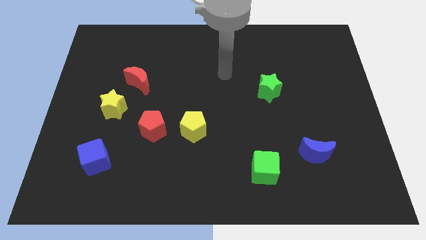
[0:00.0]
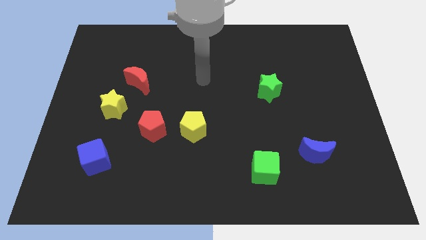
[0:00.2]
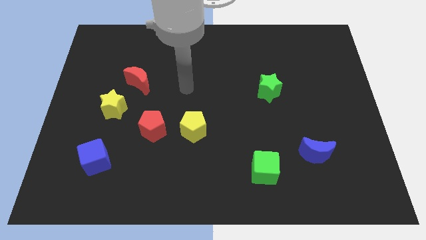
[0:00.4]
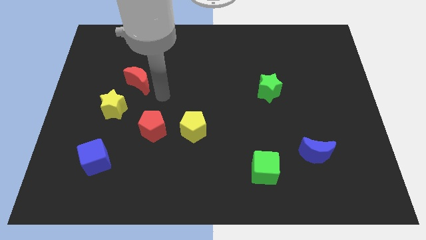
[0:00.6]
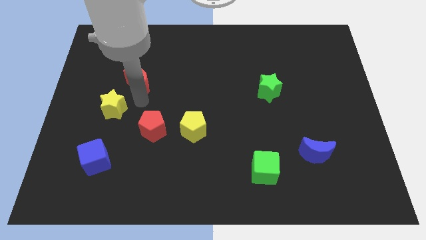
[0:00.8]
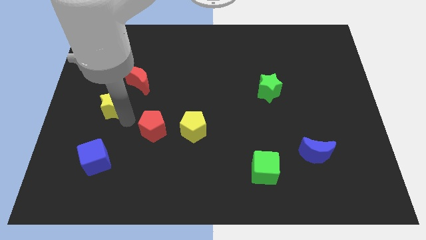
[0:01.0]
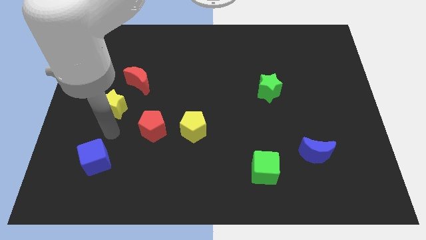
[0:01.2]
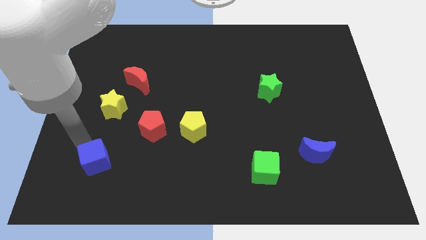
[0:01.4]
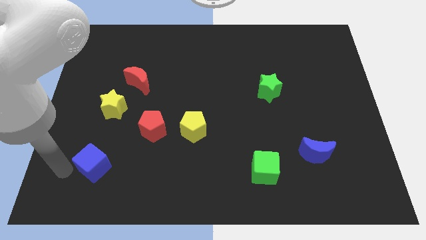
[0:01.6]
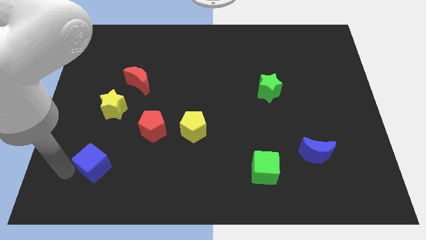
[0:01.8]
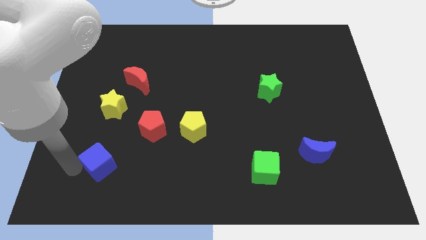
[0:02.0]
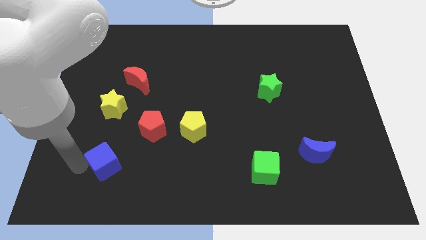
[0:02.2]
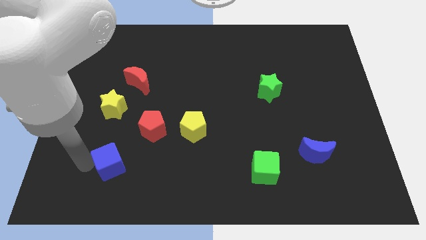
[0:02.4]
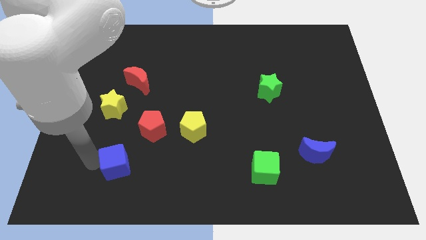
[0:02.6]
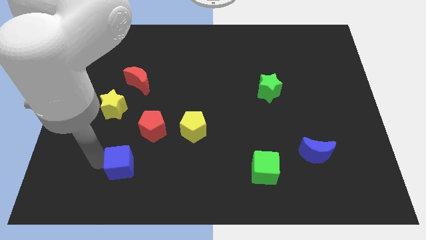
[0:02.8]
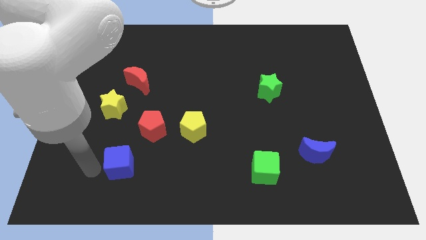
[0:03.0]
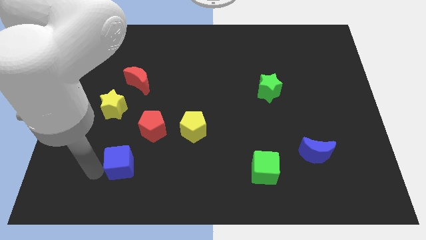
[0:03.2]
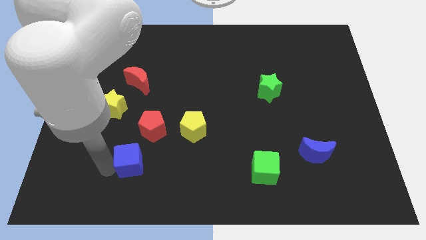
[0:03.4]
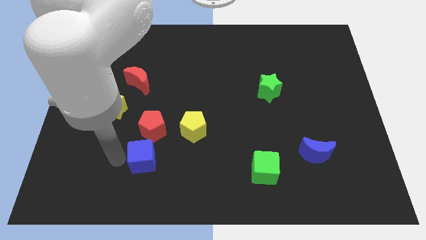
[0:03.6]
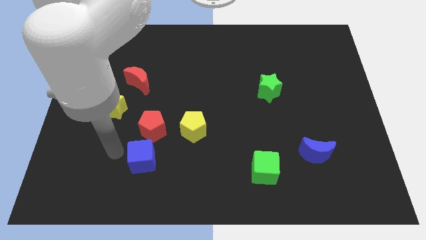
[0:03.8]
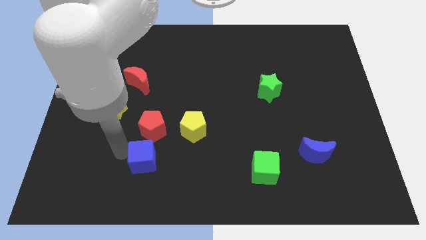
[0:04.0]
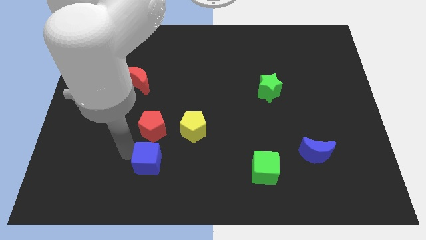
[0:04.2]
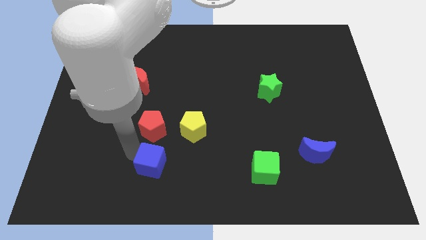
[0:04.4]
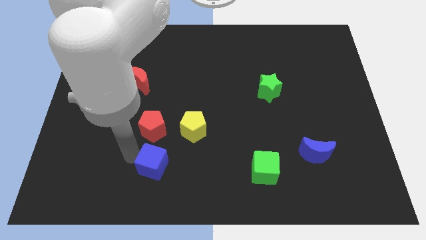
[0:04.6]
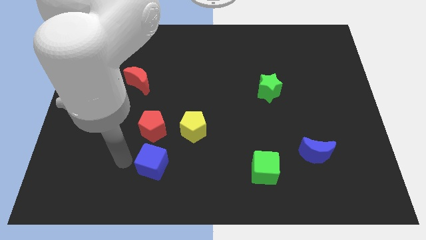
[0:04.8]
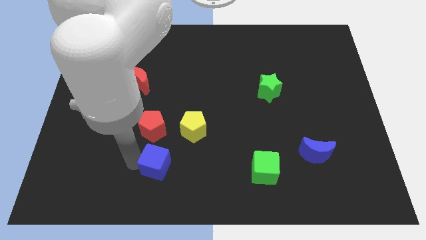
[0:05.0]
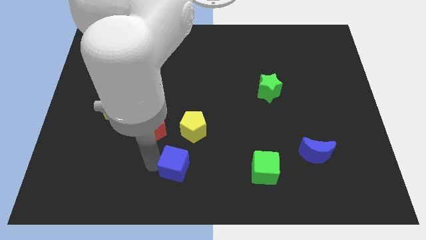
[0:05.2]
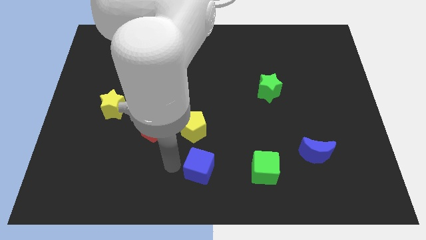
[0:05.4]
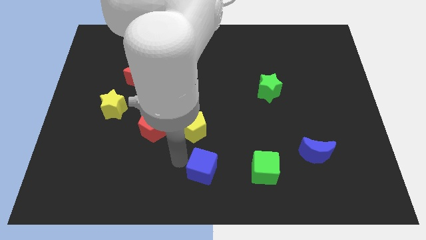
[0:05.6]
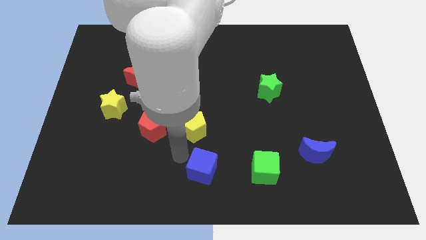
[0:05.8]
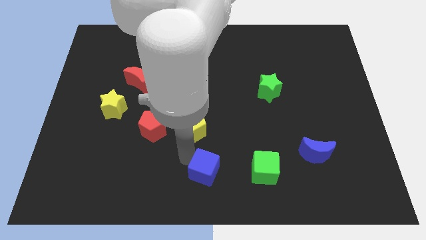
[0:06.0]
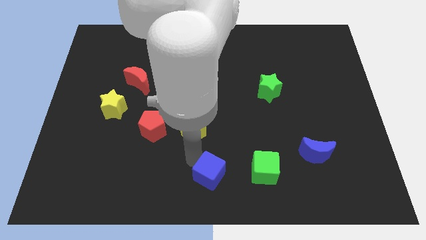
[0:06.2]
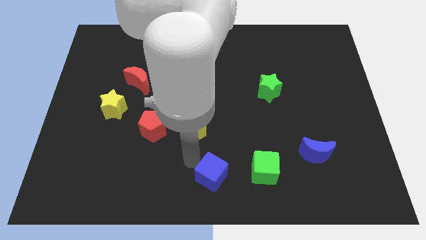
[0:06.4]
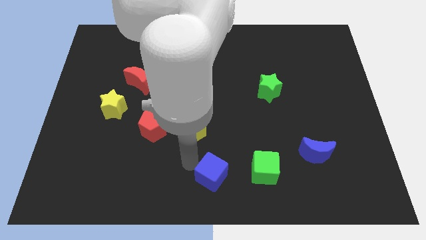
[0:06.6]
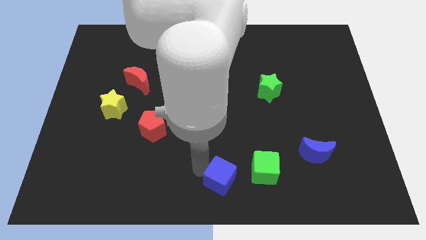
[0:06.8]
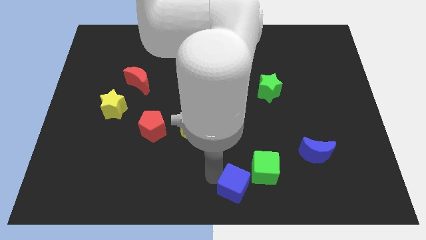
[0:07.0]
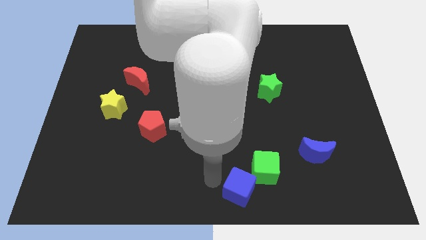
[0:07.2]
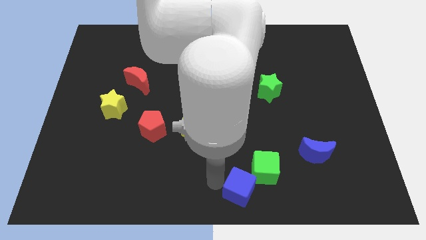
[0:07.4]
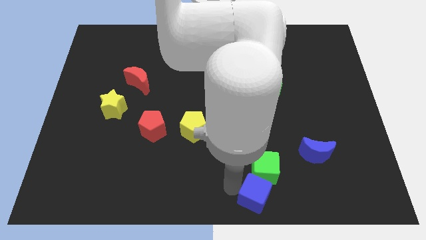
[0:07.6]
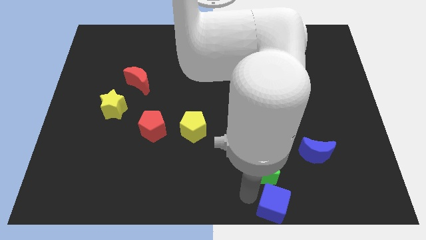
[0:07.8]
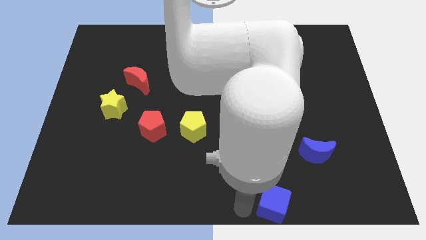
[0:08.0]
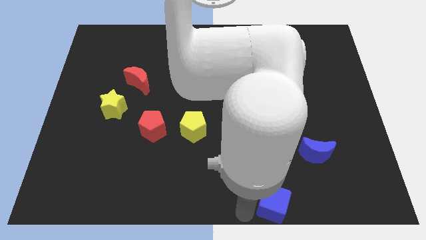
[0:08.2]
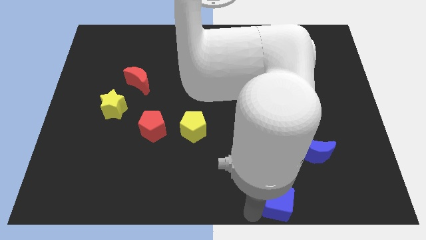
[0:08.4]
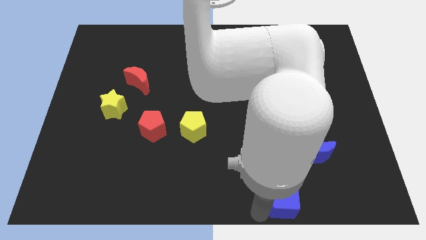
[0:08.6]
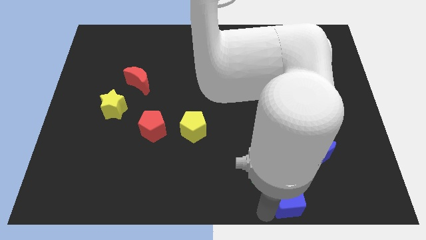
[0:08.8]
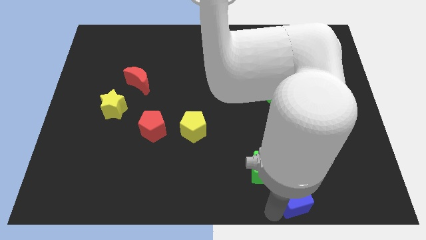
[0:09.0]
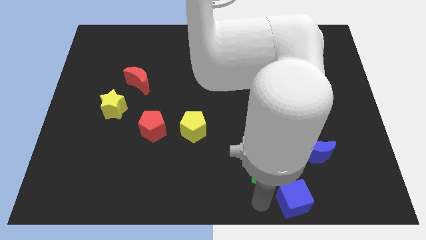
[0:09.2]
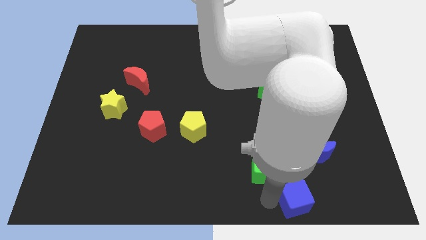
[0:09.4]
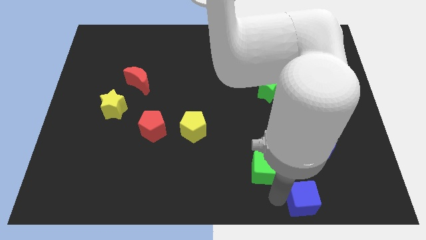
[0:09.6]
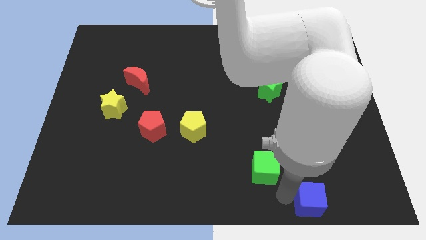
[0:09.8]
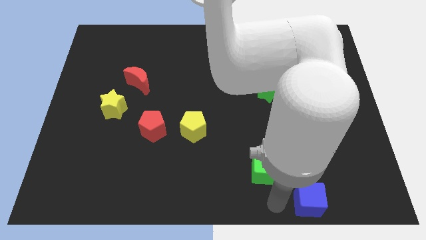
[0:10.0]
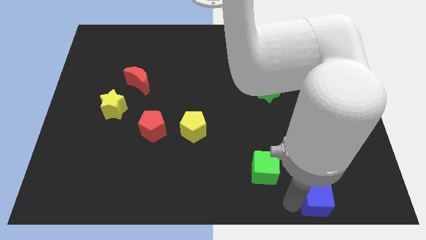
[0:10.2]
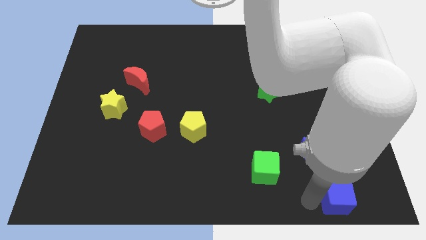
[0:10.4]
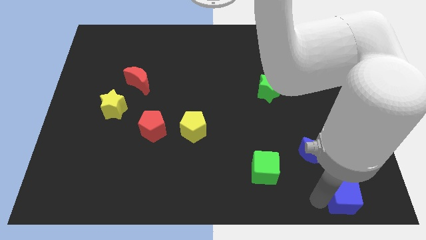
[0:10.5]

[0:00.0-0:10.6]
put the blue cube to the bottom right of the board
